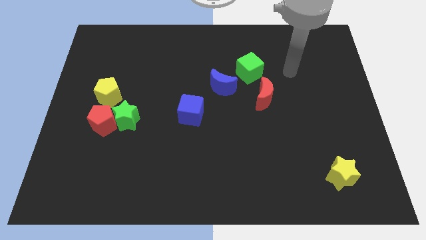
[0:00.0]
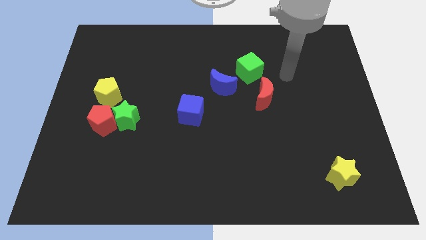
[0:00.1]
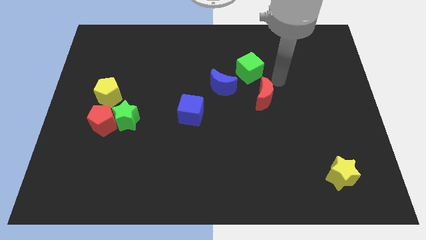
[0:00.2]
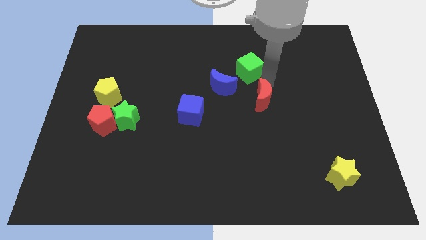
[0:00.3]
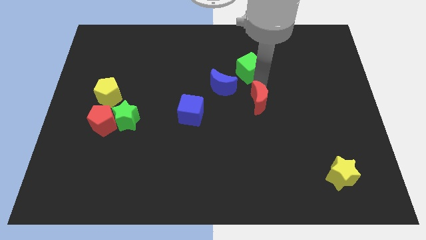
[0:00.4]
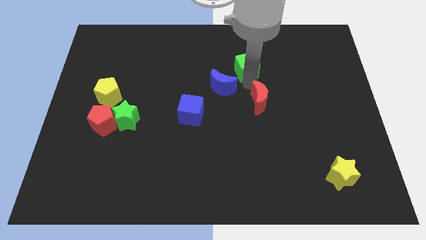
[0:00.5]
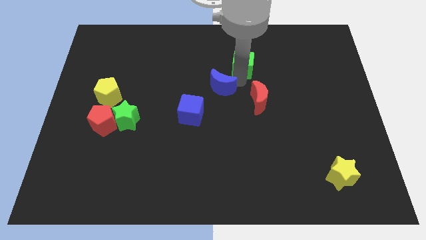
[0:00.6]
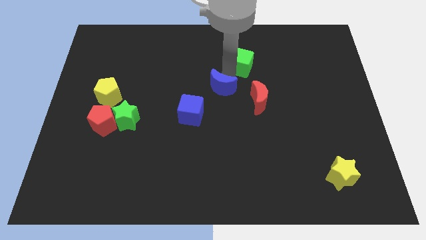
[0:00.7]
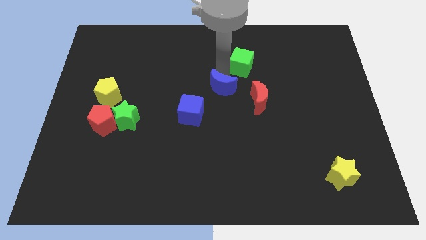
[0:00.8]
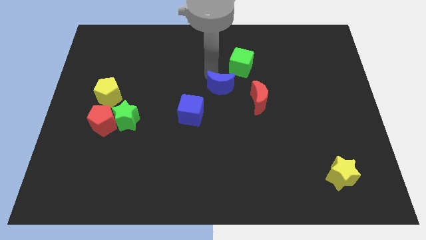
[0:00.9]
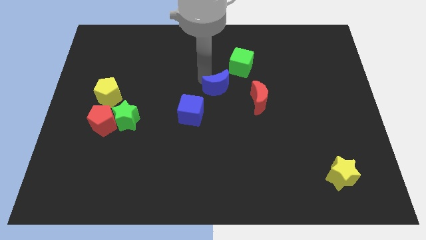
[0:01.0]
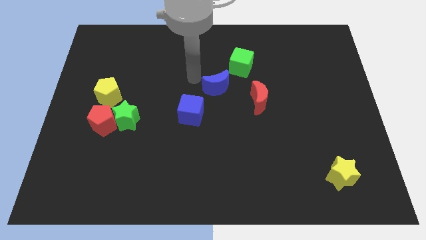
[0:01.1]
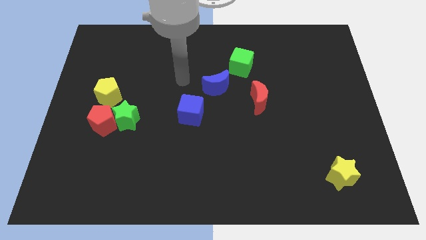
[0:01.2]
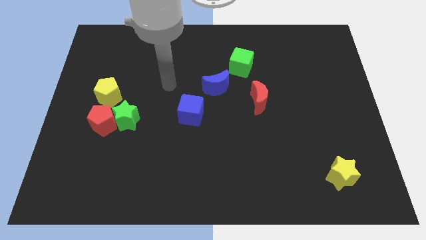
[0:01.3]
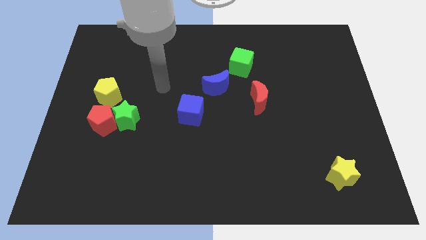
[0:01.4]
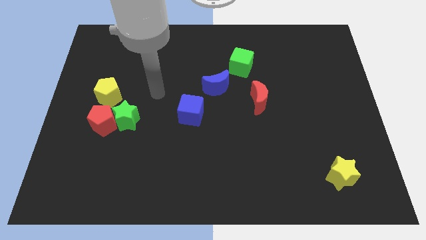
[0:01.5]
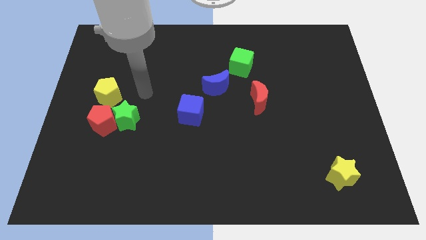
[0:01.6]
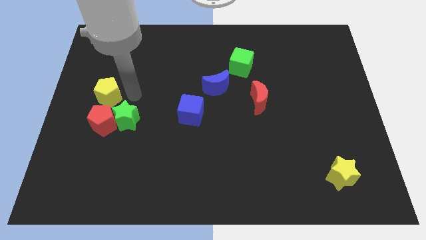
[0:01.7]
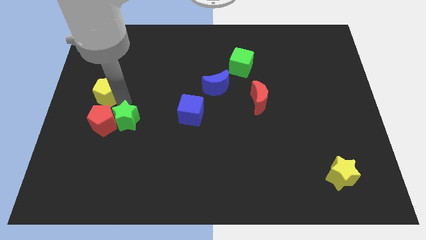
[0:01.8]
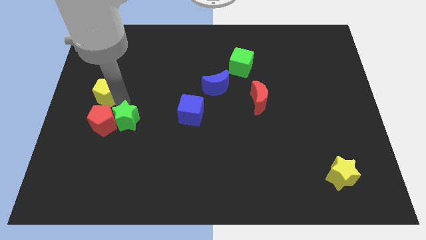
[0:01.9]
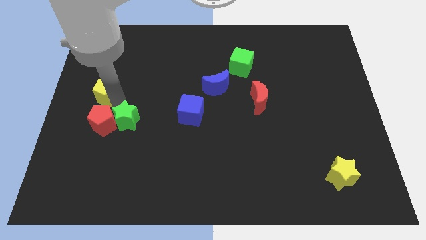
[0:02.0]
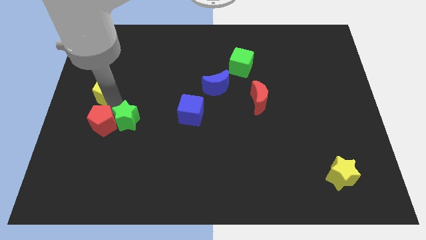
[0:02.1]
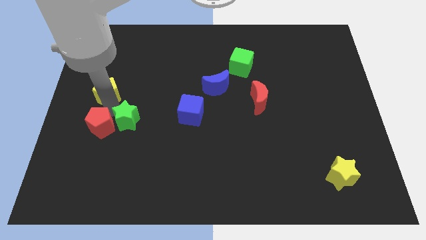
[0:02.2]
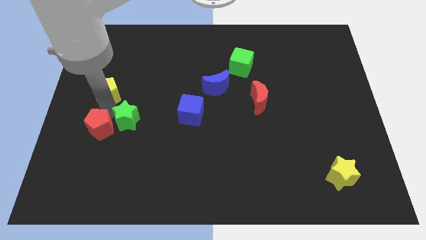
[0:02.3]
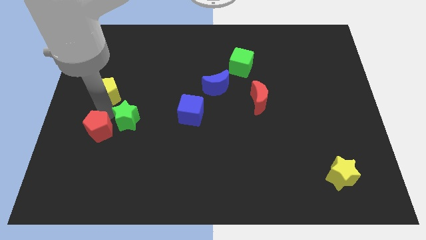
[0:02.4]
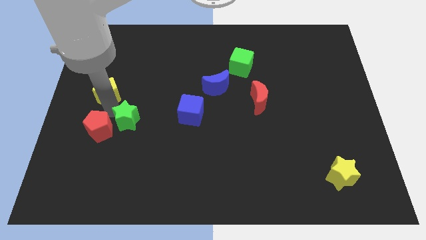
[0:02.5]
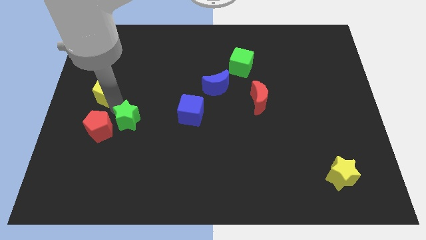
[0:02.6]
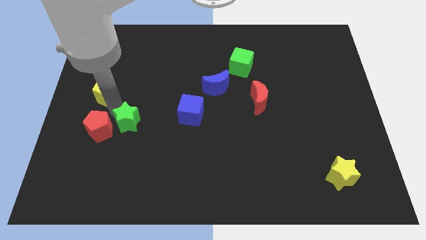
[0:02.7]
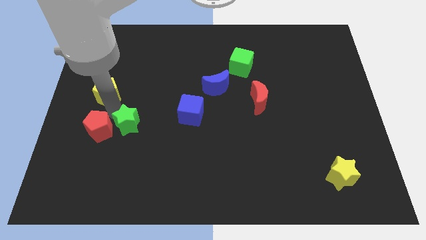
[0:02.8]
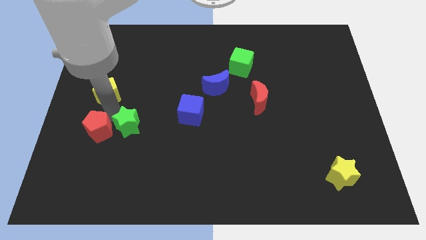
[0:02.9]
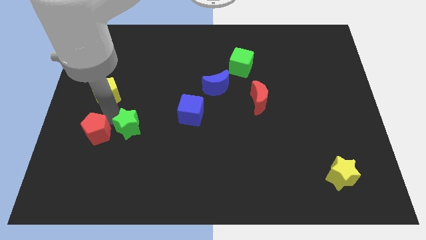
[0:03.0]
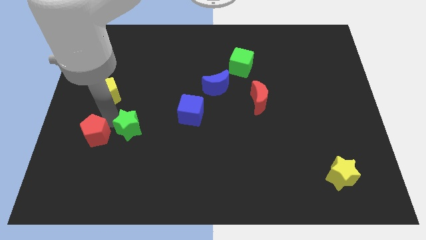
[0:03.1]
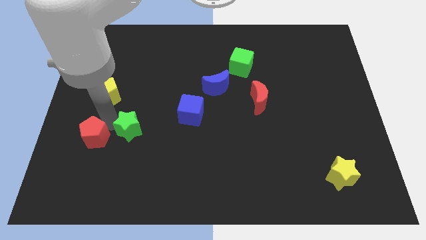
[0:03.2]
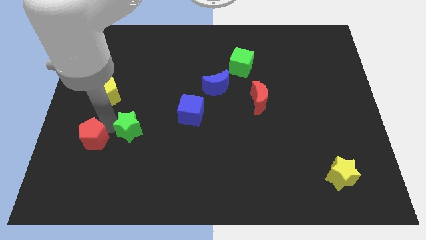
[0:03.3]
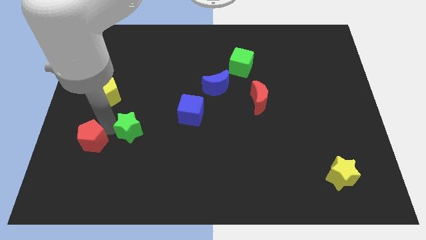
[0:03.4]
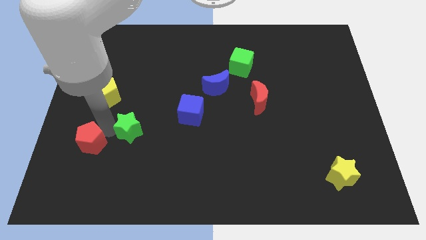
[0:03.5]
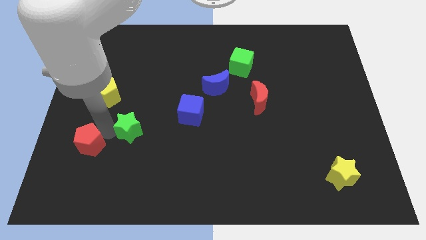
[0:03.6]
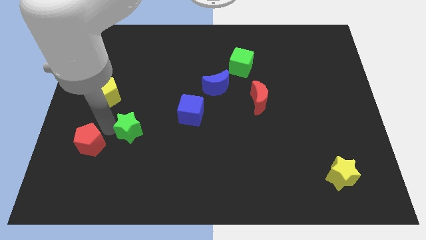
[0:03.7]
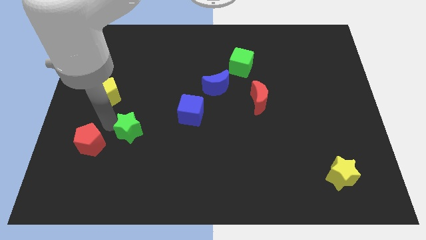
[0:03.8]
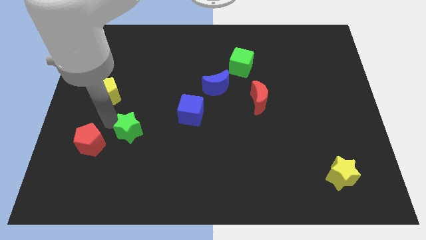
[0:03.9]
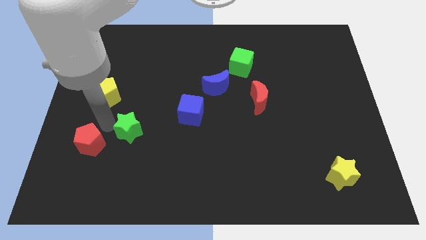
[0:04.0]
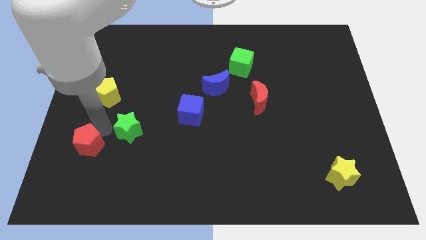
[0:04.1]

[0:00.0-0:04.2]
move the red pentagon away from the green star and yellow pentagon

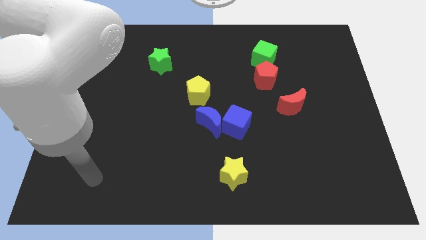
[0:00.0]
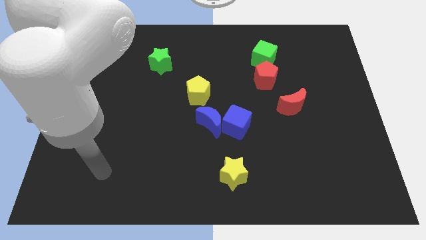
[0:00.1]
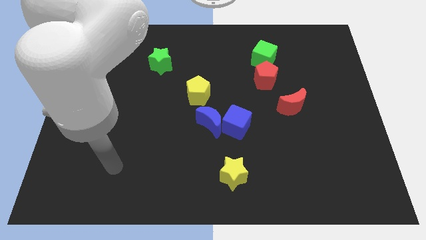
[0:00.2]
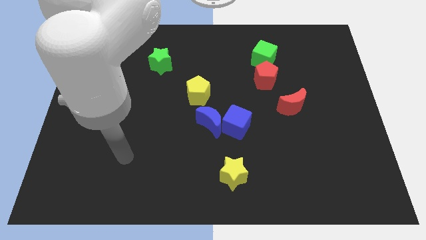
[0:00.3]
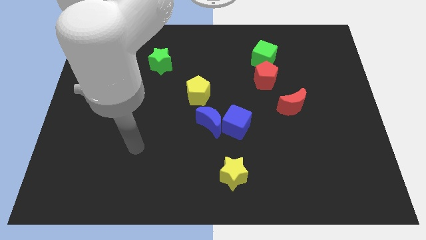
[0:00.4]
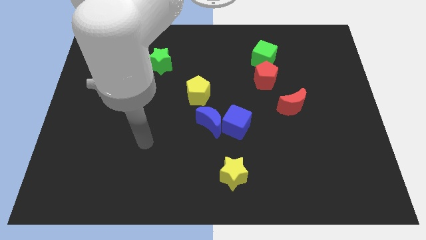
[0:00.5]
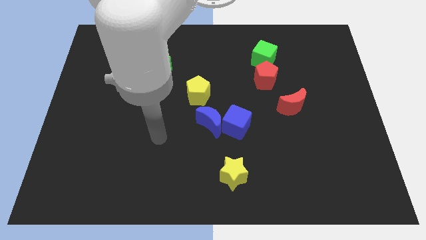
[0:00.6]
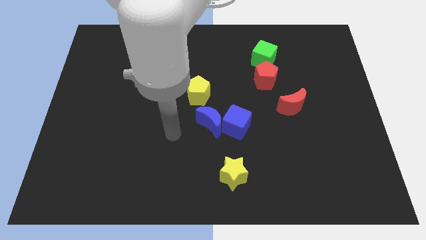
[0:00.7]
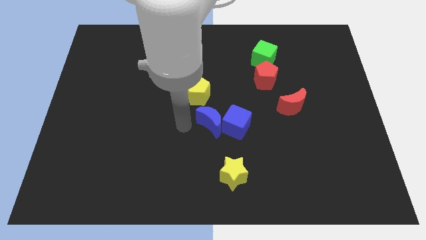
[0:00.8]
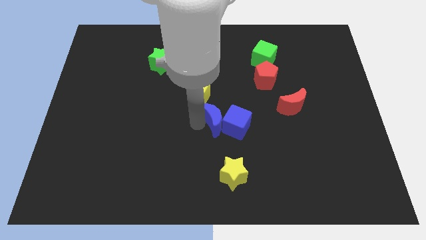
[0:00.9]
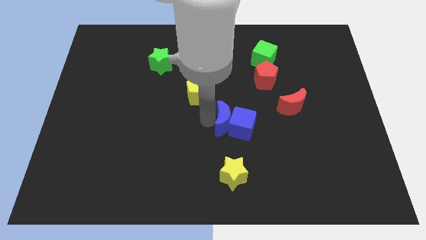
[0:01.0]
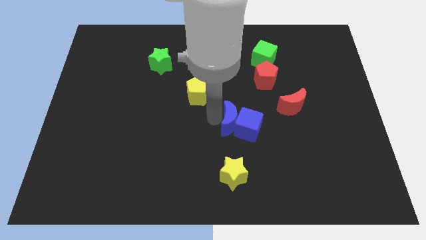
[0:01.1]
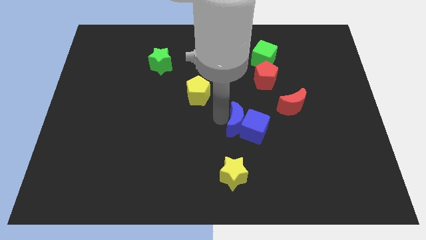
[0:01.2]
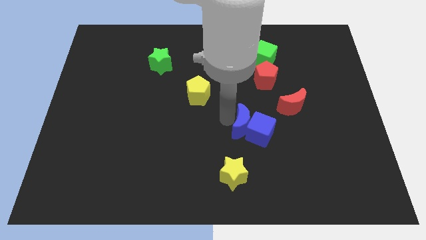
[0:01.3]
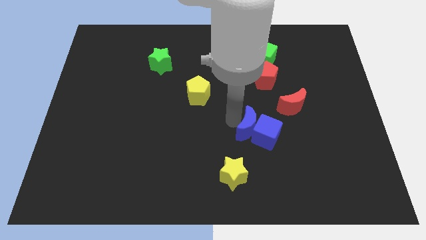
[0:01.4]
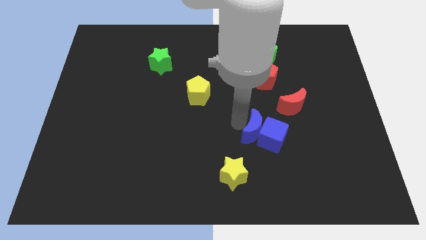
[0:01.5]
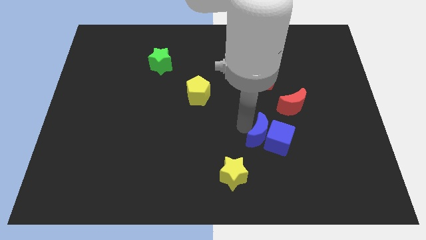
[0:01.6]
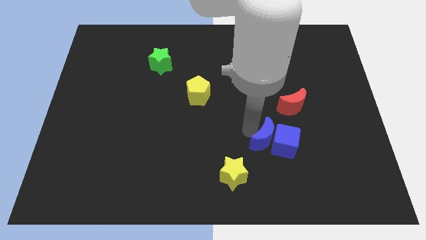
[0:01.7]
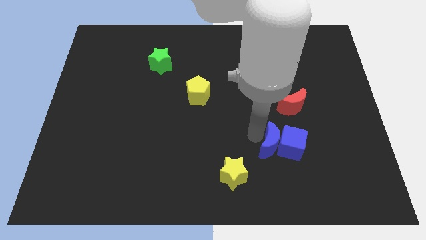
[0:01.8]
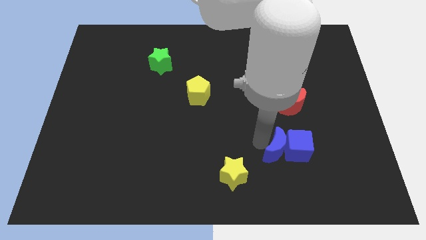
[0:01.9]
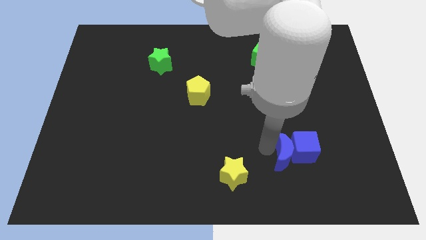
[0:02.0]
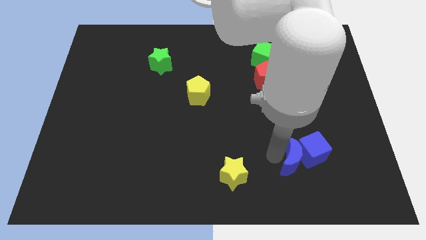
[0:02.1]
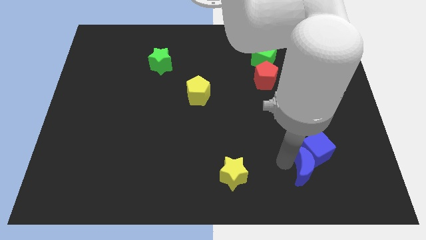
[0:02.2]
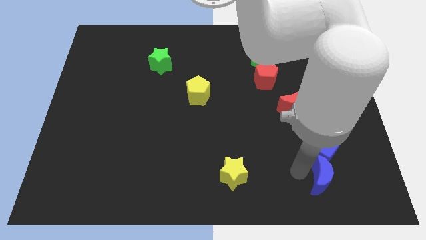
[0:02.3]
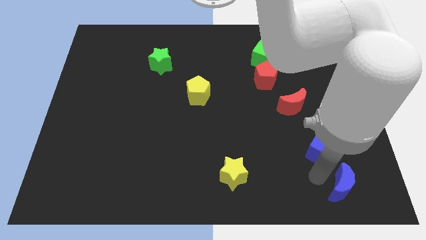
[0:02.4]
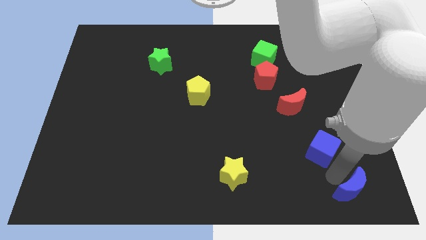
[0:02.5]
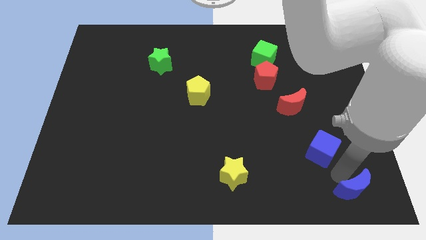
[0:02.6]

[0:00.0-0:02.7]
move the blue cube away from the blue moon

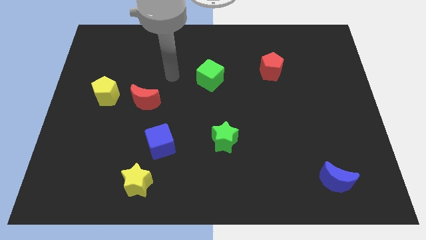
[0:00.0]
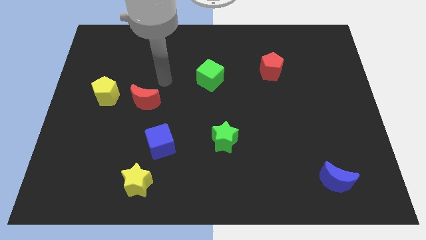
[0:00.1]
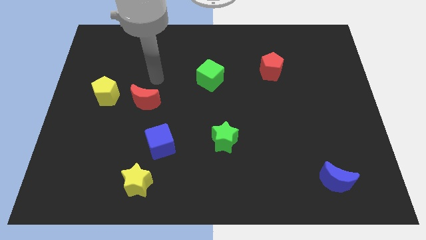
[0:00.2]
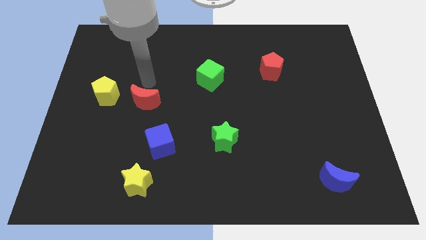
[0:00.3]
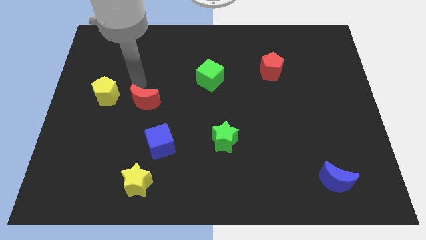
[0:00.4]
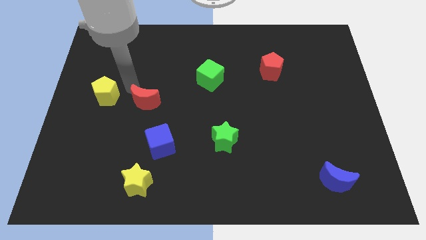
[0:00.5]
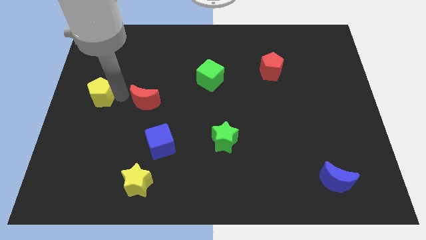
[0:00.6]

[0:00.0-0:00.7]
move the red moon away from the yellow pentagon

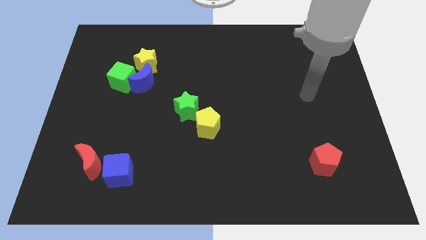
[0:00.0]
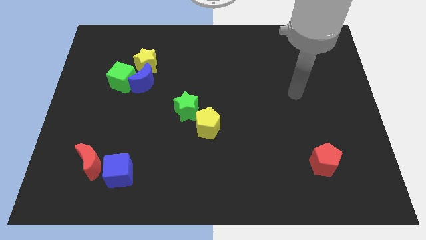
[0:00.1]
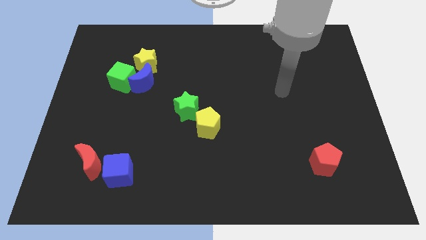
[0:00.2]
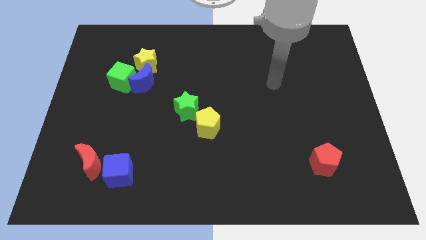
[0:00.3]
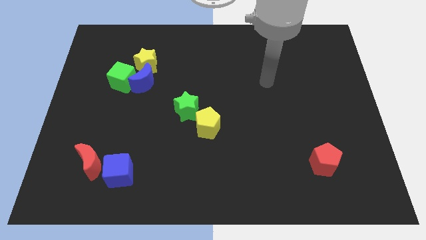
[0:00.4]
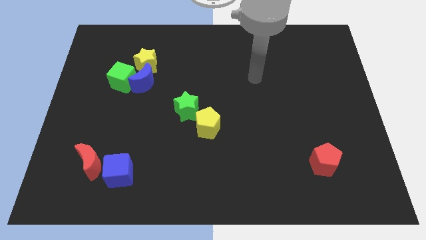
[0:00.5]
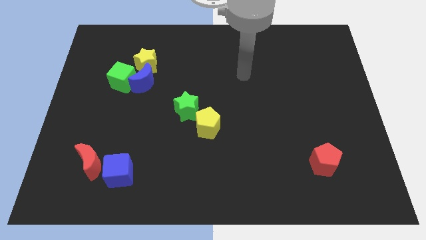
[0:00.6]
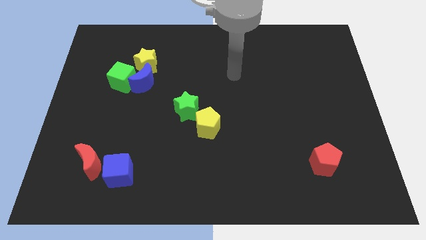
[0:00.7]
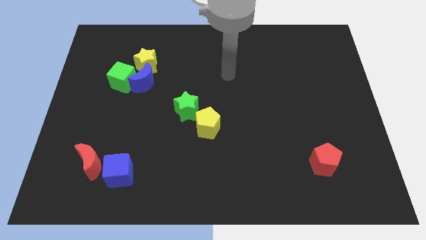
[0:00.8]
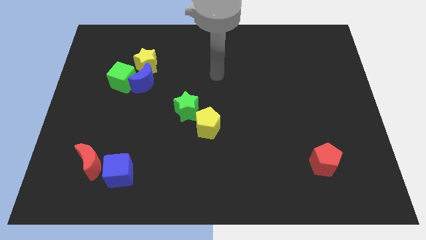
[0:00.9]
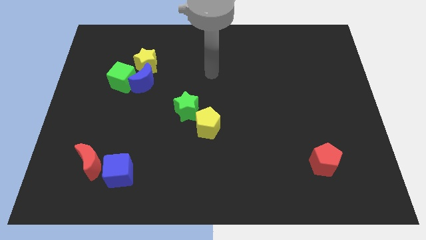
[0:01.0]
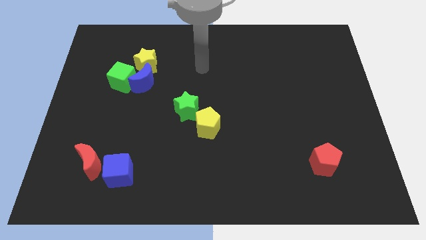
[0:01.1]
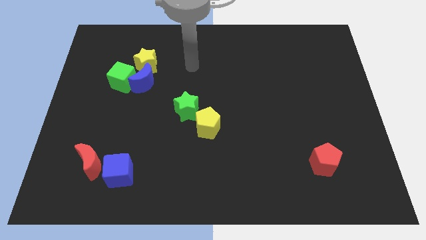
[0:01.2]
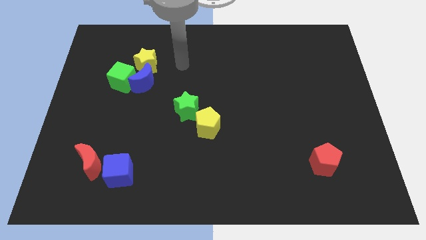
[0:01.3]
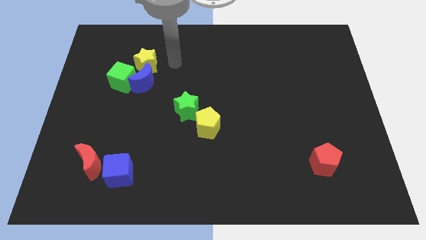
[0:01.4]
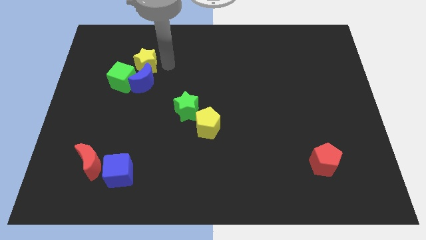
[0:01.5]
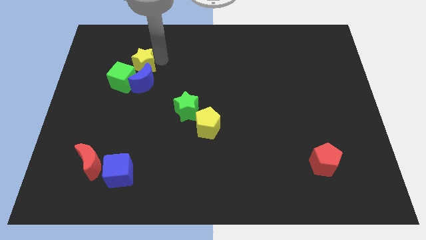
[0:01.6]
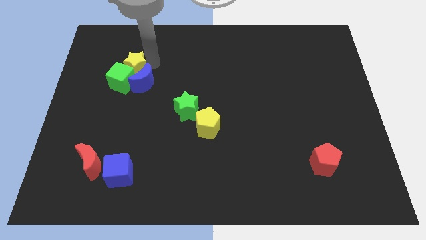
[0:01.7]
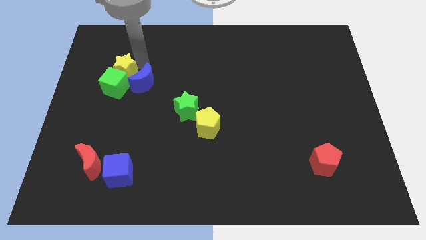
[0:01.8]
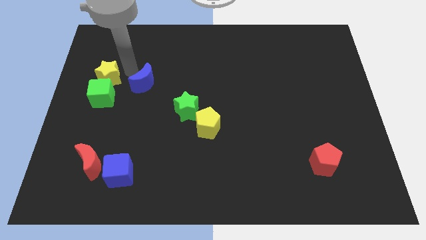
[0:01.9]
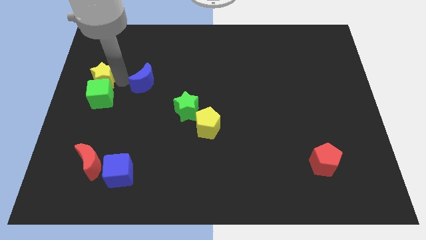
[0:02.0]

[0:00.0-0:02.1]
pull the blue moon apart from the green cube and yellow star
